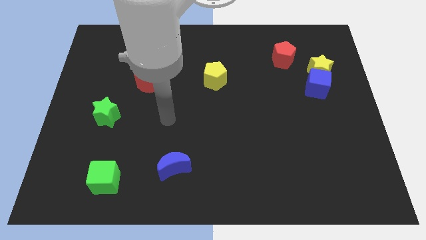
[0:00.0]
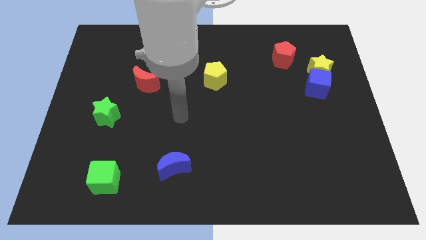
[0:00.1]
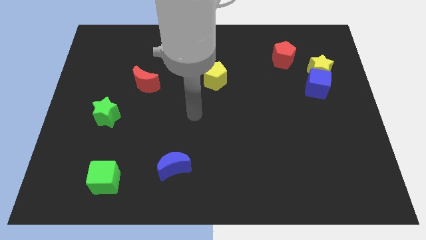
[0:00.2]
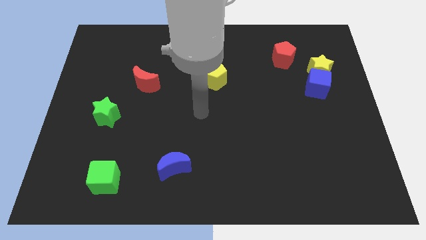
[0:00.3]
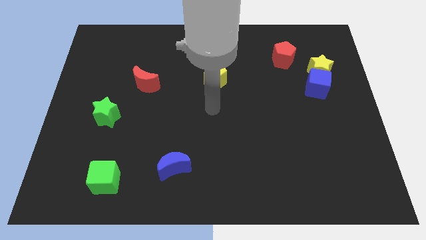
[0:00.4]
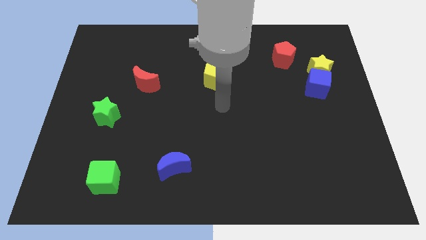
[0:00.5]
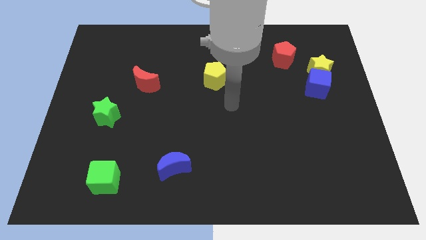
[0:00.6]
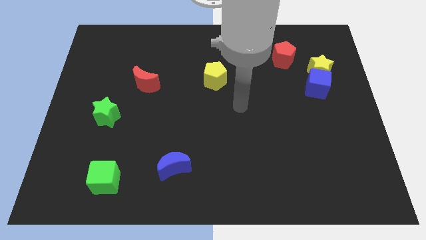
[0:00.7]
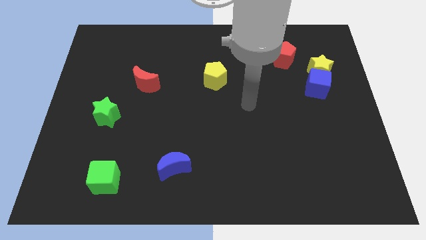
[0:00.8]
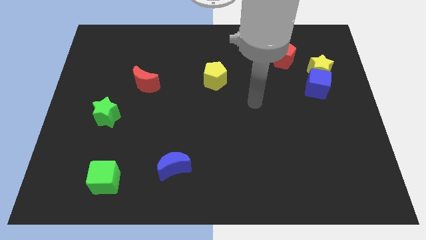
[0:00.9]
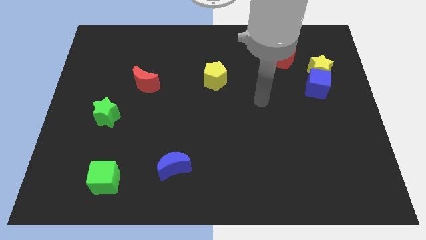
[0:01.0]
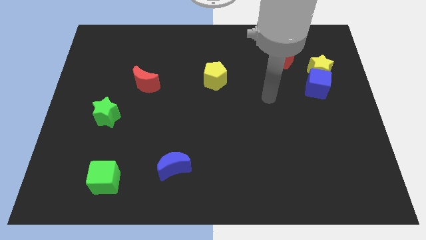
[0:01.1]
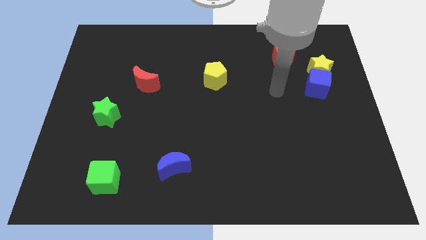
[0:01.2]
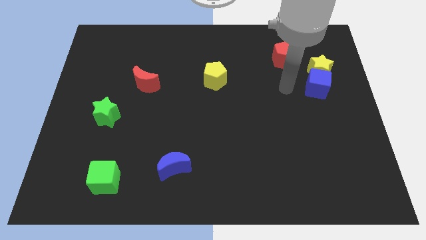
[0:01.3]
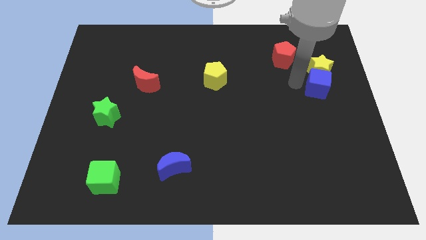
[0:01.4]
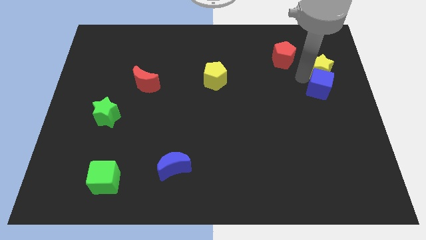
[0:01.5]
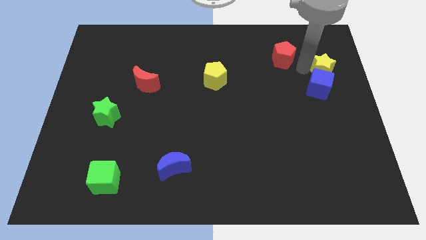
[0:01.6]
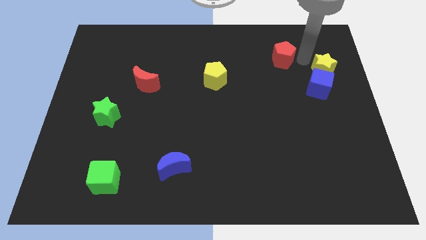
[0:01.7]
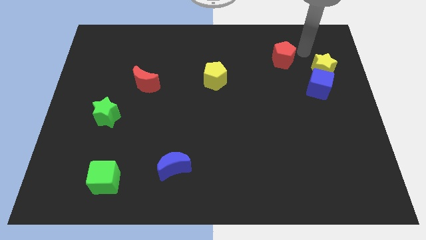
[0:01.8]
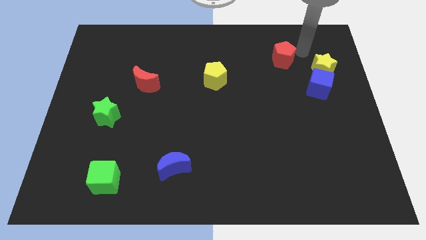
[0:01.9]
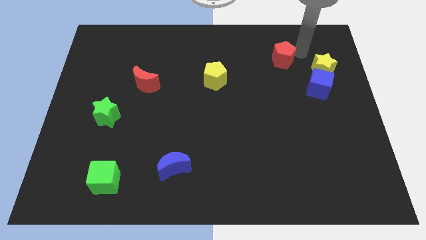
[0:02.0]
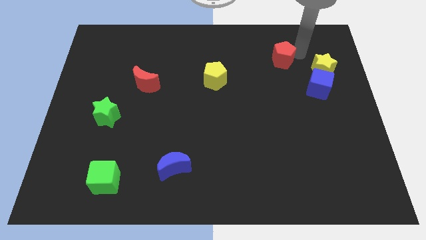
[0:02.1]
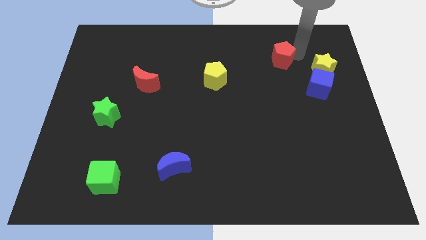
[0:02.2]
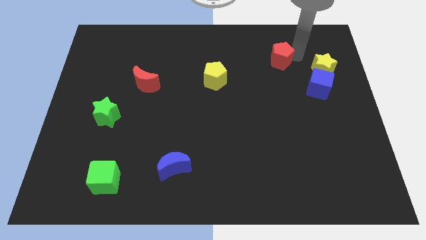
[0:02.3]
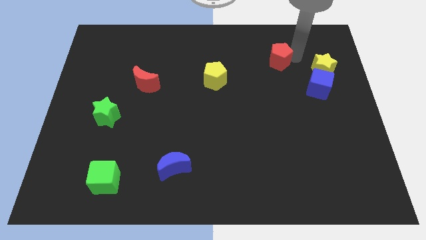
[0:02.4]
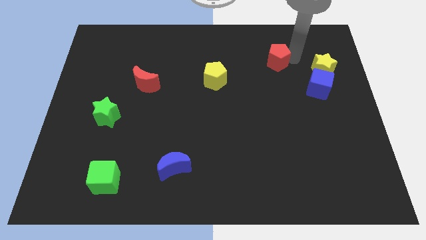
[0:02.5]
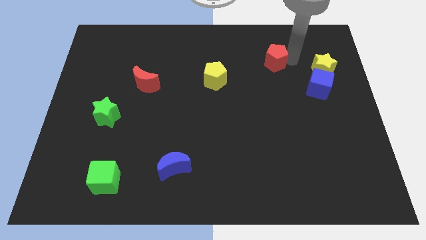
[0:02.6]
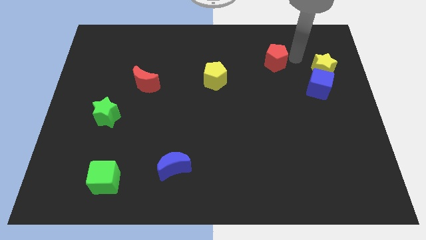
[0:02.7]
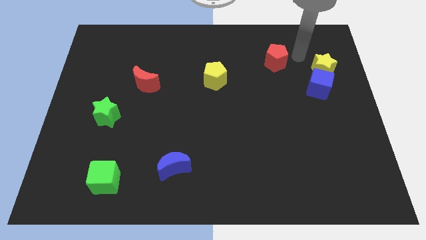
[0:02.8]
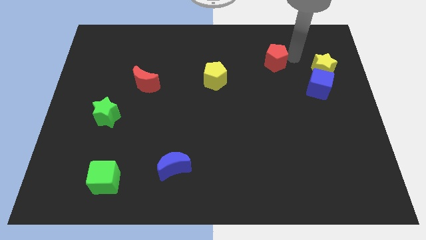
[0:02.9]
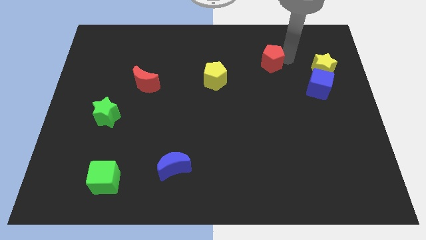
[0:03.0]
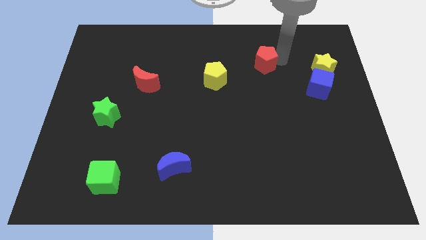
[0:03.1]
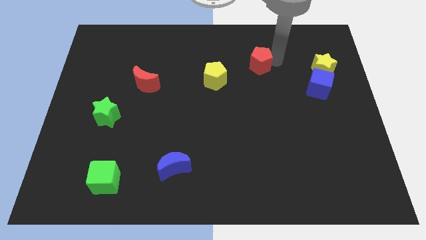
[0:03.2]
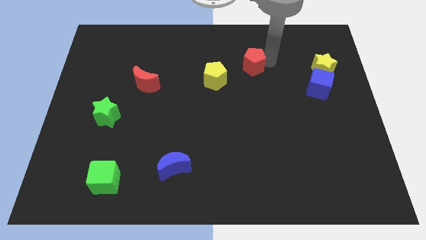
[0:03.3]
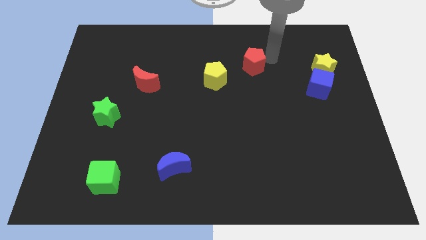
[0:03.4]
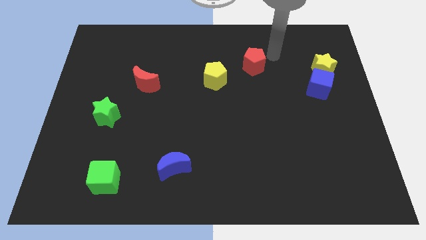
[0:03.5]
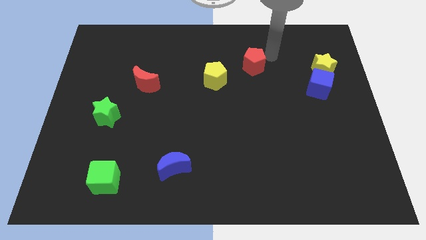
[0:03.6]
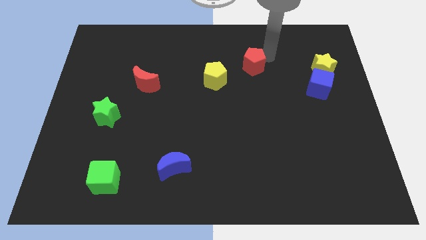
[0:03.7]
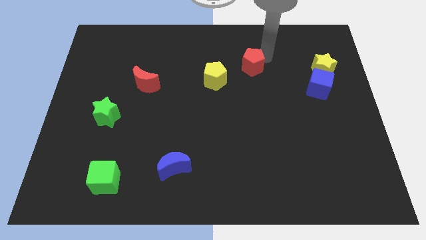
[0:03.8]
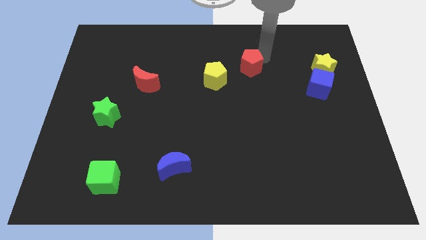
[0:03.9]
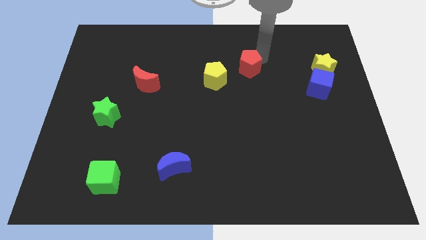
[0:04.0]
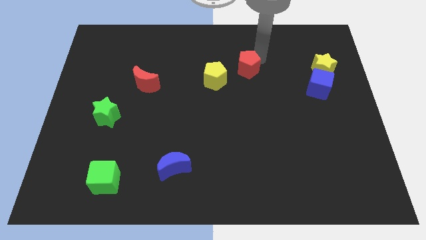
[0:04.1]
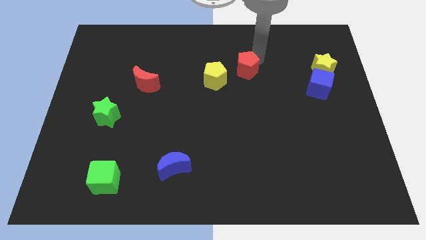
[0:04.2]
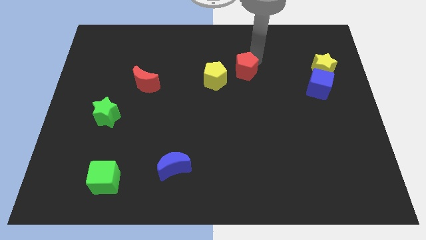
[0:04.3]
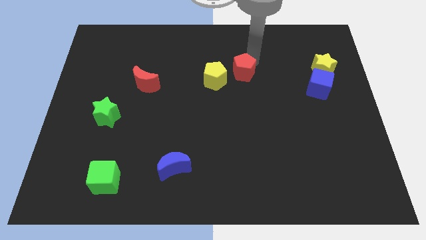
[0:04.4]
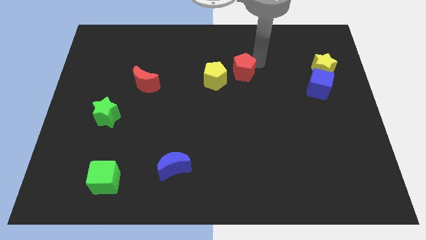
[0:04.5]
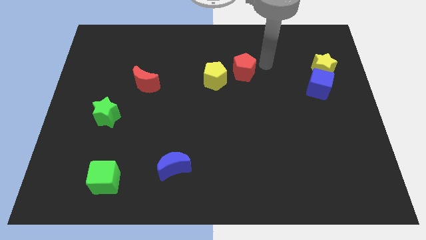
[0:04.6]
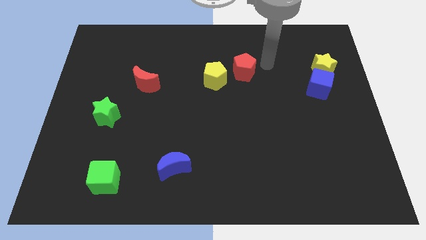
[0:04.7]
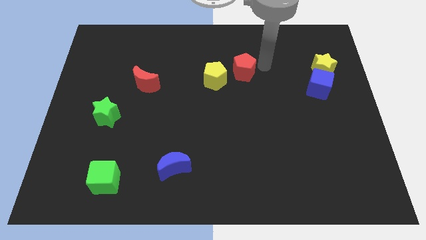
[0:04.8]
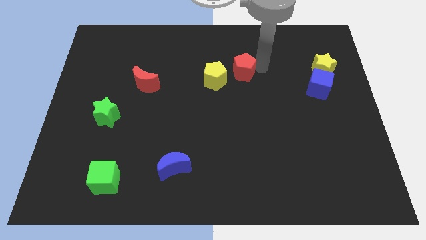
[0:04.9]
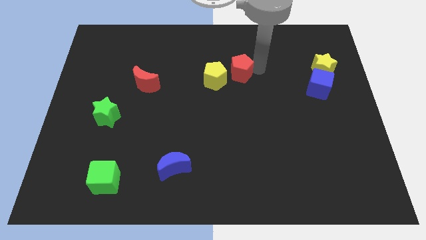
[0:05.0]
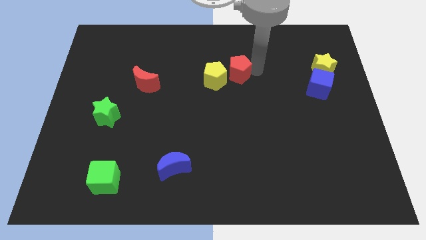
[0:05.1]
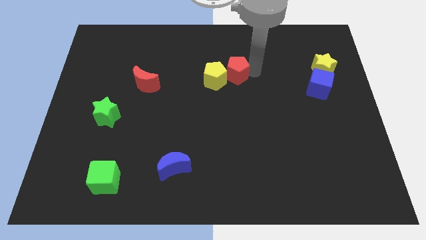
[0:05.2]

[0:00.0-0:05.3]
push the red pentagon to the yellow pentagon

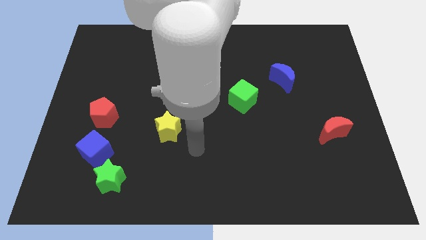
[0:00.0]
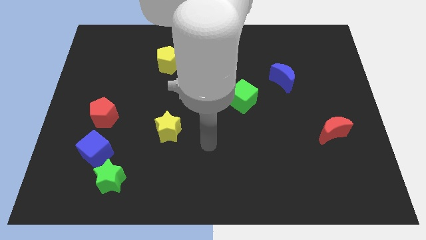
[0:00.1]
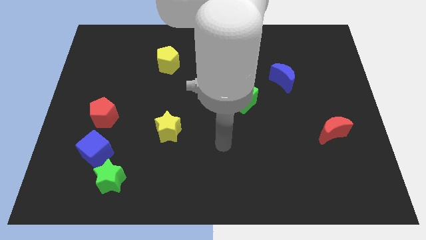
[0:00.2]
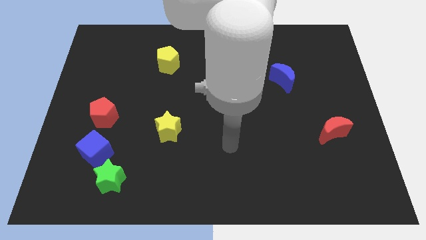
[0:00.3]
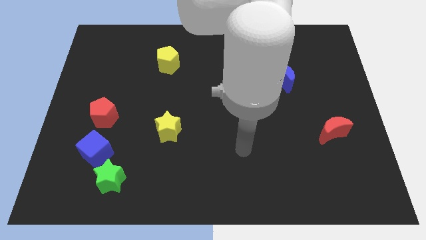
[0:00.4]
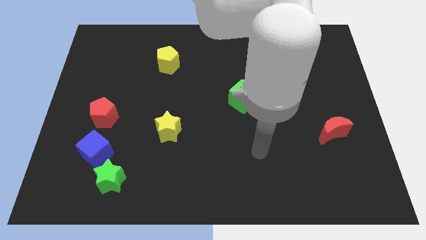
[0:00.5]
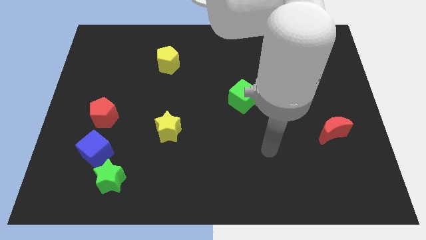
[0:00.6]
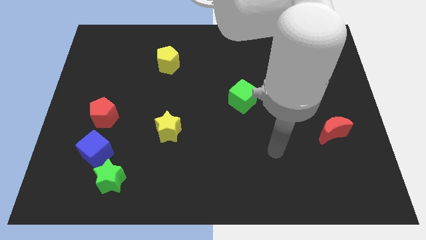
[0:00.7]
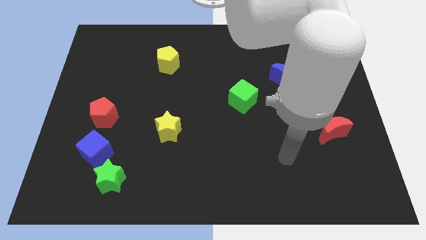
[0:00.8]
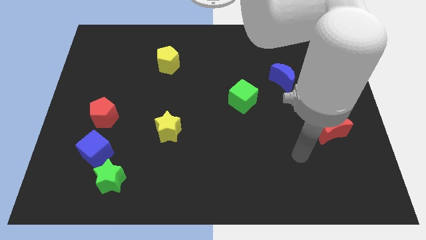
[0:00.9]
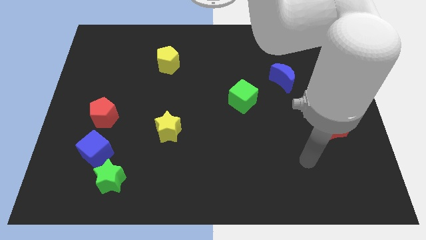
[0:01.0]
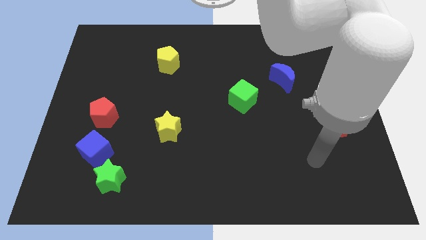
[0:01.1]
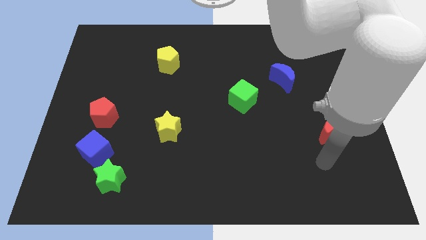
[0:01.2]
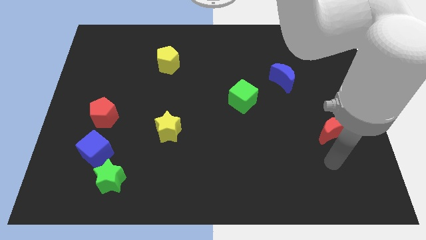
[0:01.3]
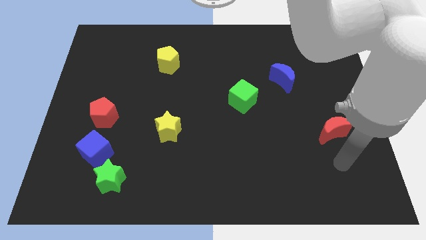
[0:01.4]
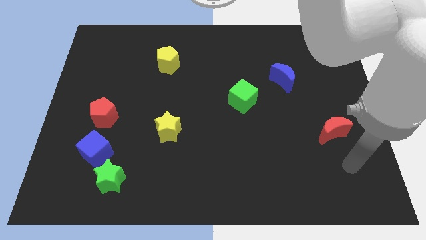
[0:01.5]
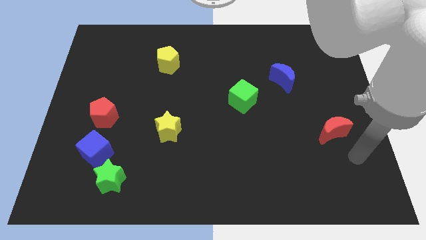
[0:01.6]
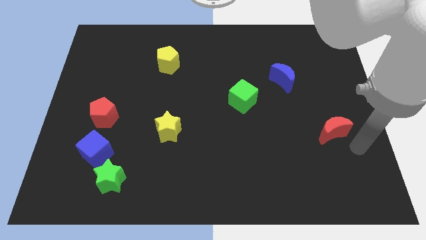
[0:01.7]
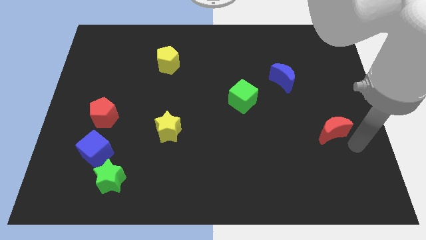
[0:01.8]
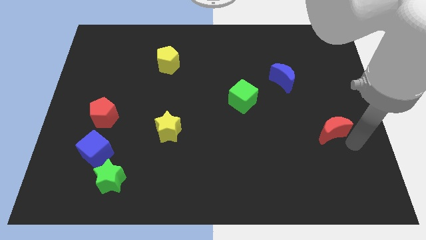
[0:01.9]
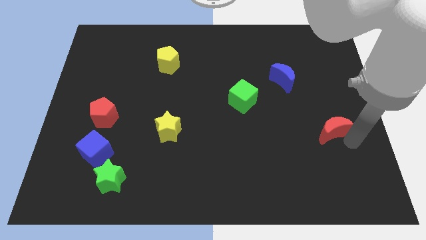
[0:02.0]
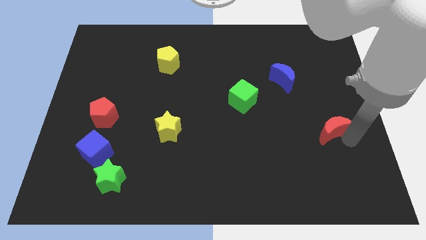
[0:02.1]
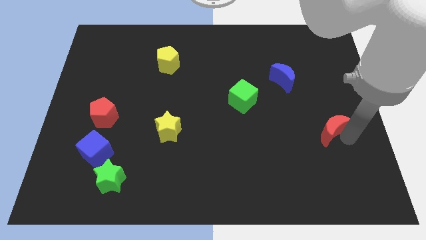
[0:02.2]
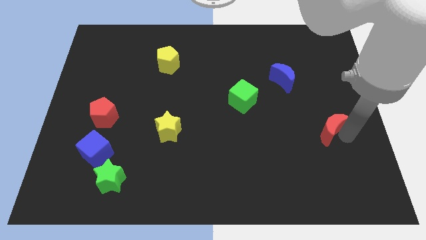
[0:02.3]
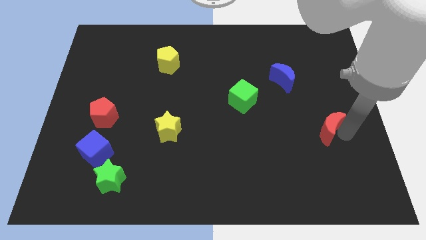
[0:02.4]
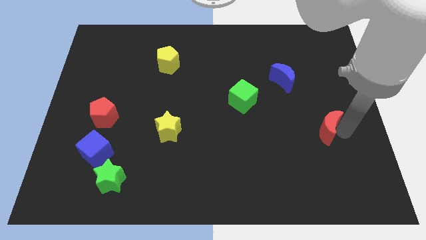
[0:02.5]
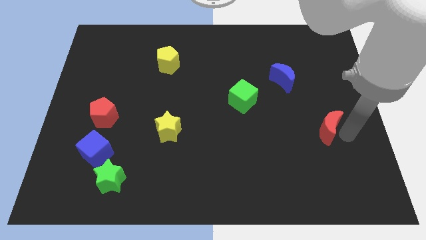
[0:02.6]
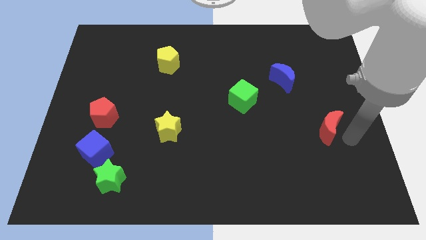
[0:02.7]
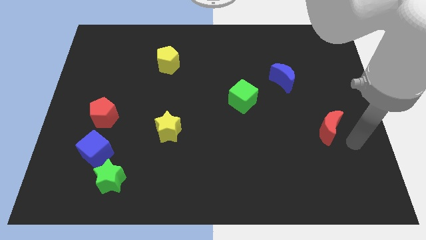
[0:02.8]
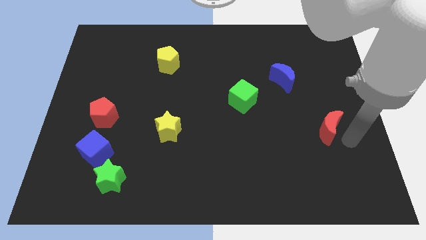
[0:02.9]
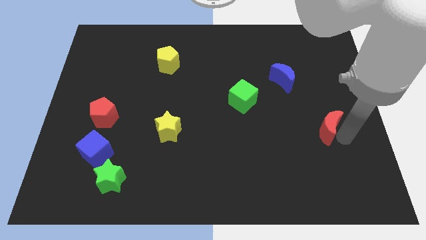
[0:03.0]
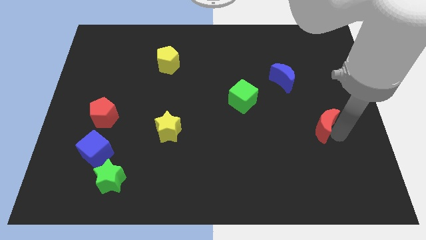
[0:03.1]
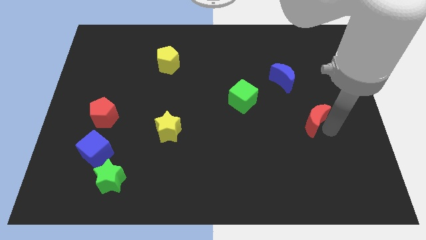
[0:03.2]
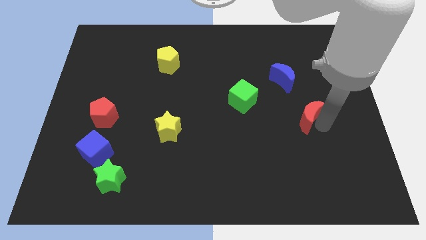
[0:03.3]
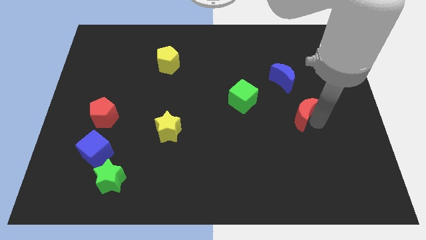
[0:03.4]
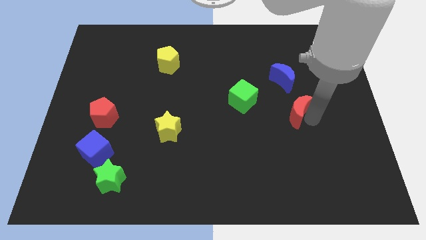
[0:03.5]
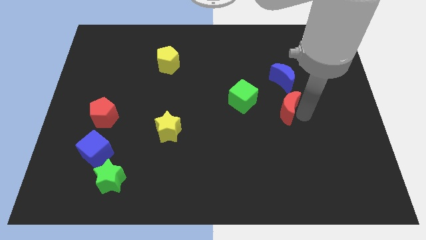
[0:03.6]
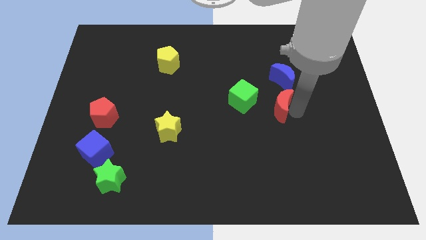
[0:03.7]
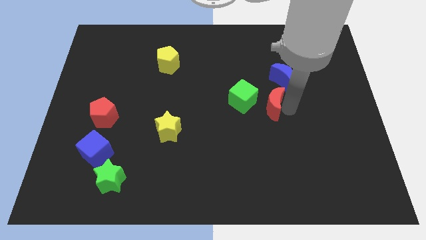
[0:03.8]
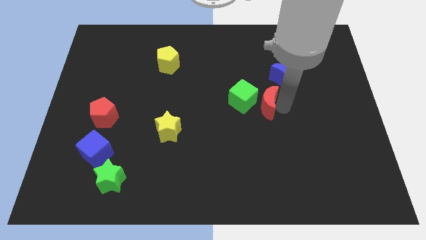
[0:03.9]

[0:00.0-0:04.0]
push the red moon close to the green cube
